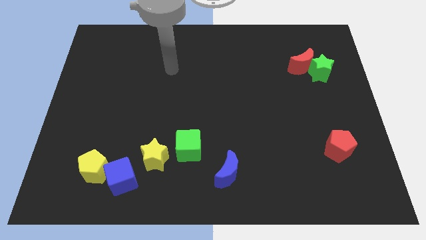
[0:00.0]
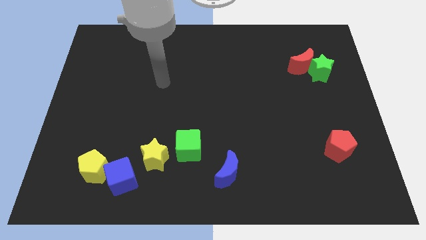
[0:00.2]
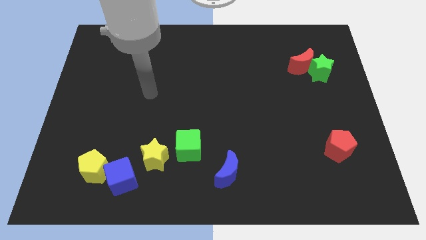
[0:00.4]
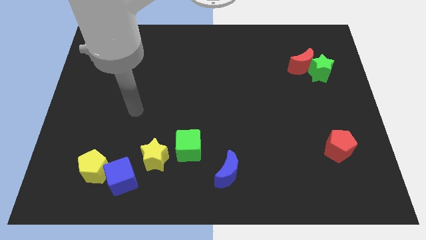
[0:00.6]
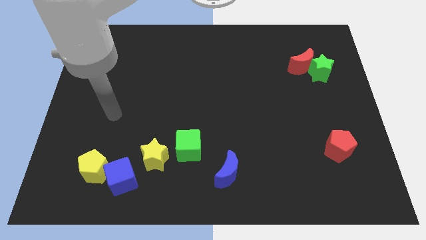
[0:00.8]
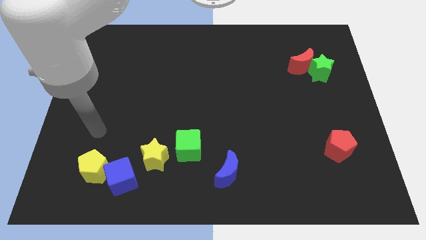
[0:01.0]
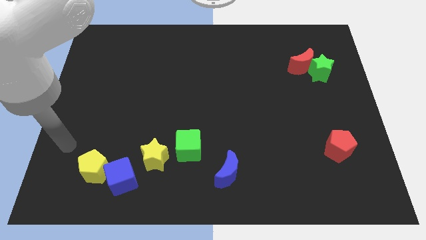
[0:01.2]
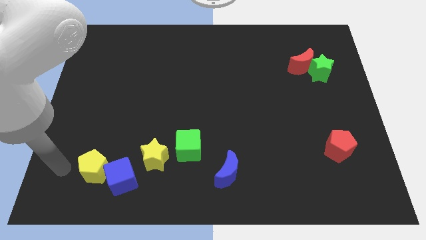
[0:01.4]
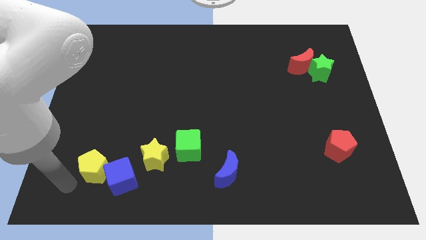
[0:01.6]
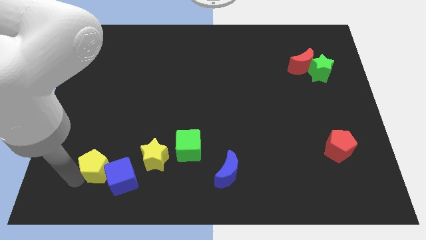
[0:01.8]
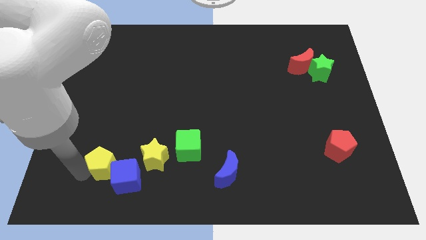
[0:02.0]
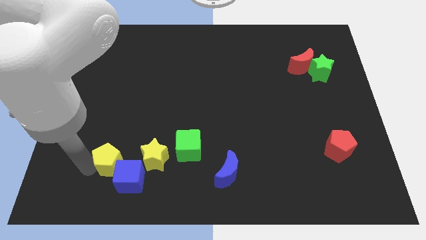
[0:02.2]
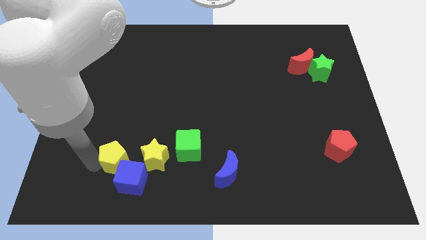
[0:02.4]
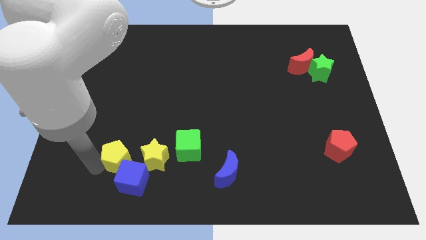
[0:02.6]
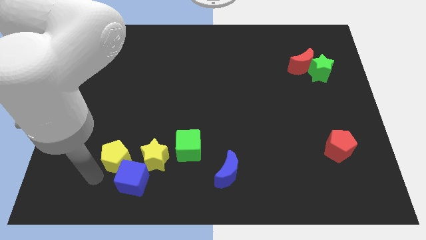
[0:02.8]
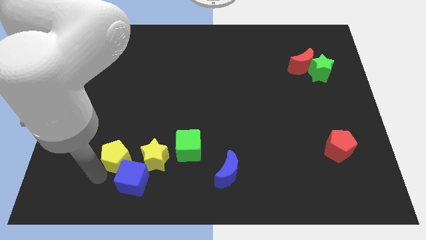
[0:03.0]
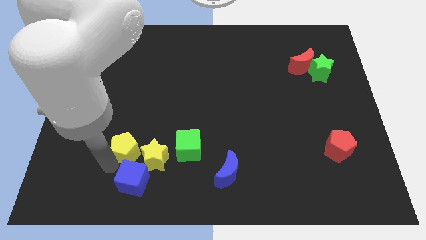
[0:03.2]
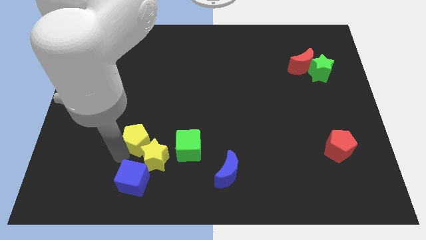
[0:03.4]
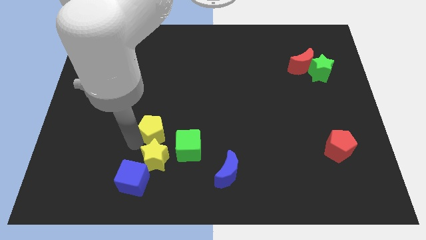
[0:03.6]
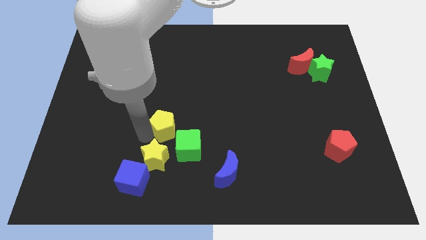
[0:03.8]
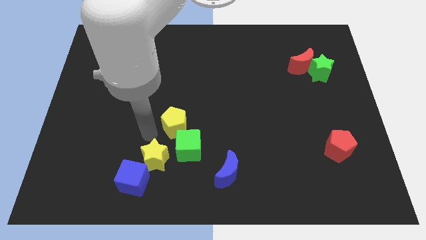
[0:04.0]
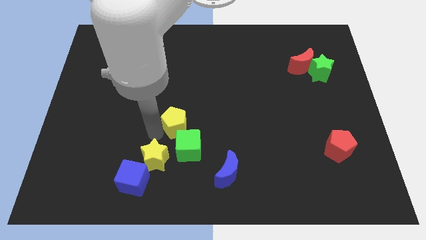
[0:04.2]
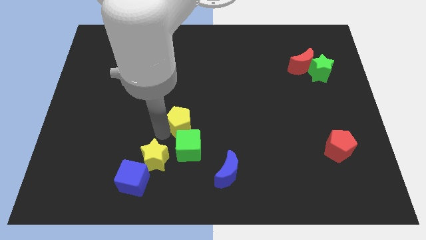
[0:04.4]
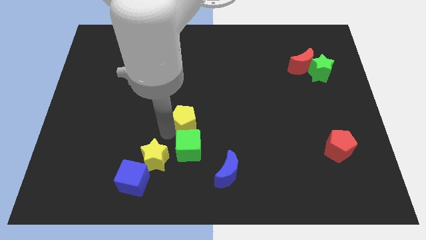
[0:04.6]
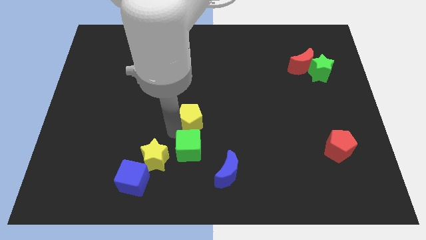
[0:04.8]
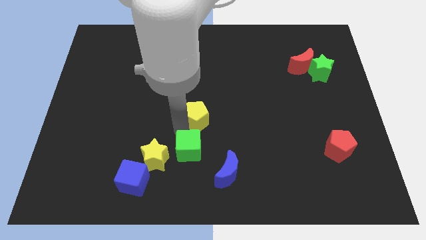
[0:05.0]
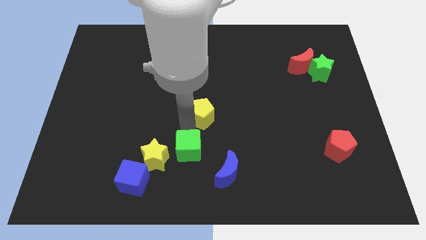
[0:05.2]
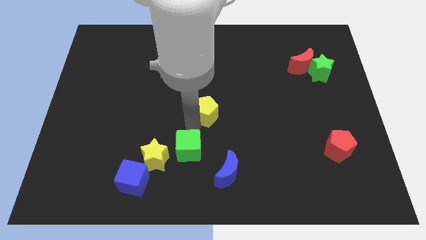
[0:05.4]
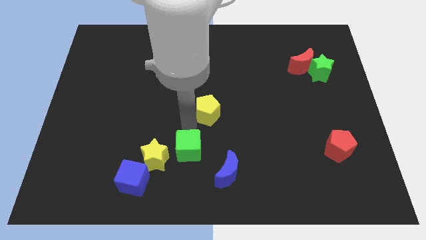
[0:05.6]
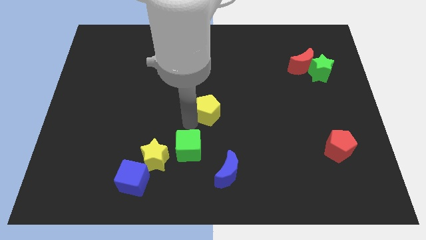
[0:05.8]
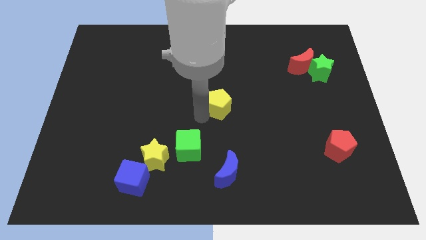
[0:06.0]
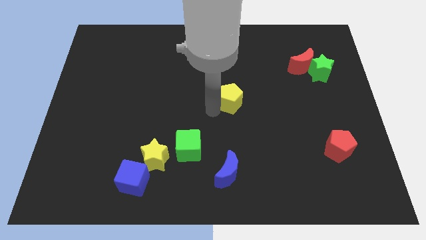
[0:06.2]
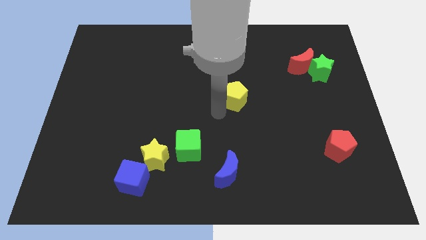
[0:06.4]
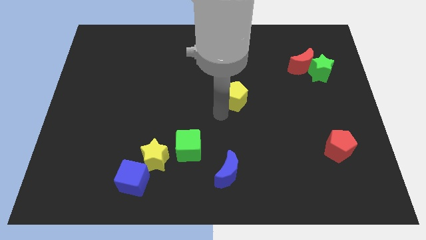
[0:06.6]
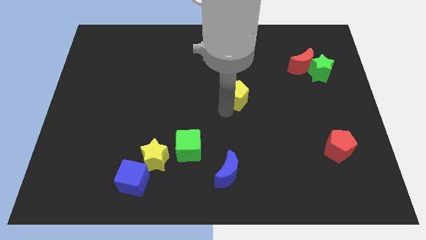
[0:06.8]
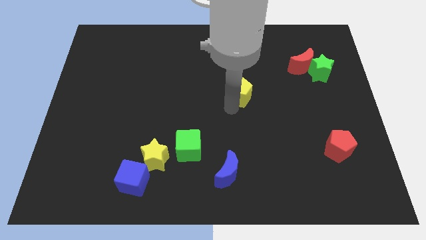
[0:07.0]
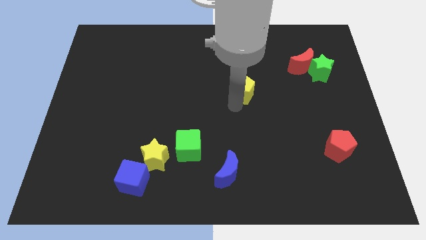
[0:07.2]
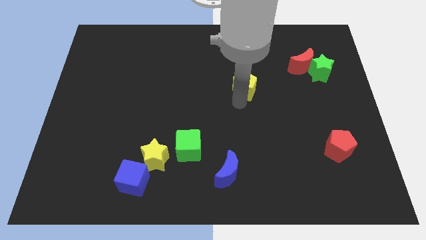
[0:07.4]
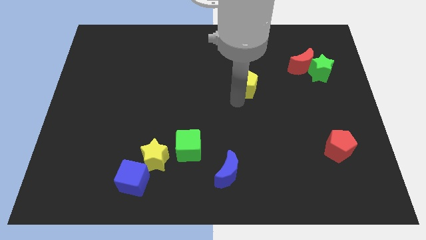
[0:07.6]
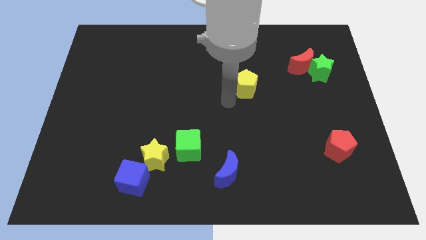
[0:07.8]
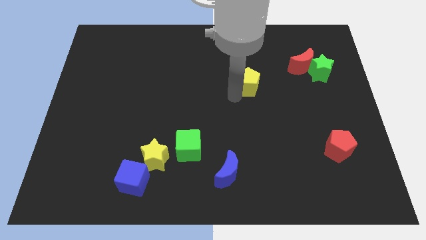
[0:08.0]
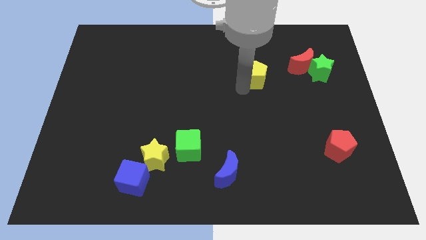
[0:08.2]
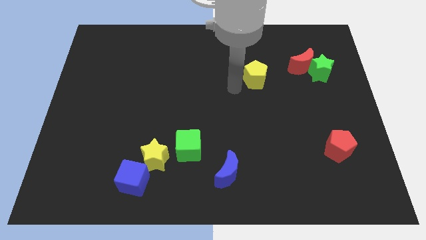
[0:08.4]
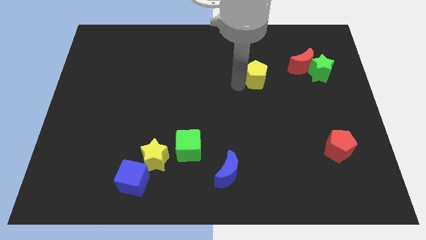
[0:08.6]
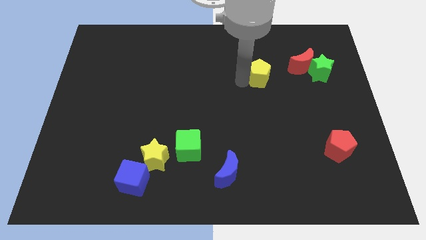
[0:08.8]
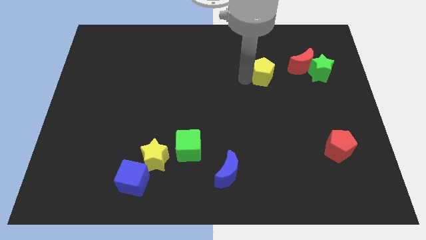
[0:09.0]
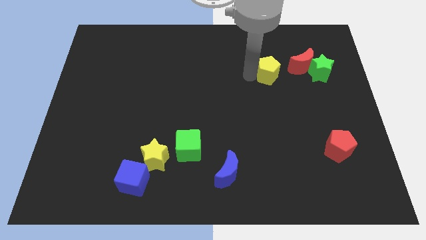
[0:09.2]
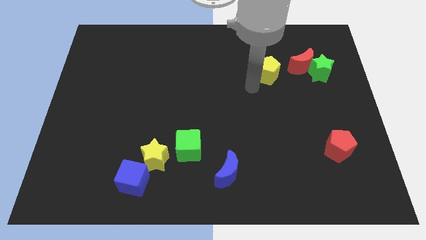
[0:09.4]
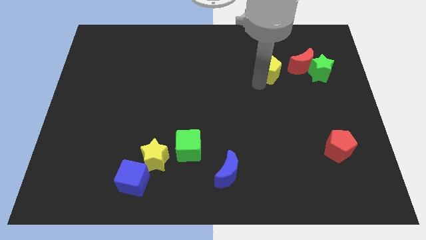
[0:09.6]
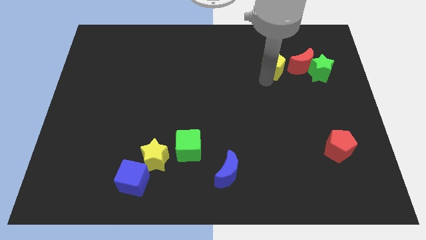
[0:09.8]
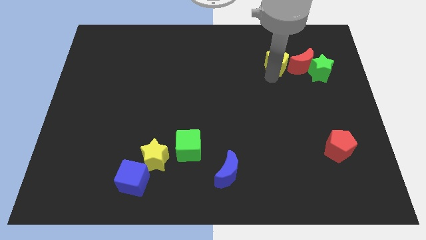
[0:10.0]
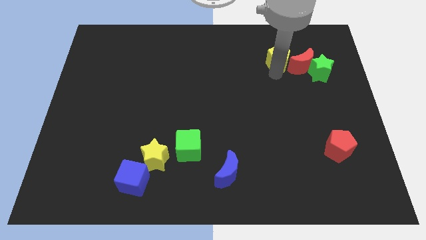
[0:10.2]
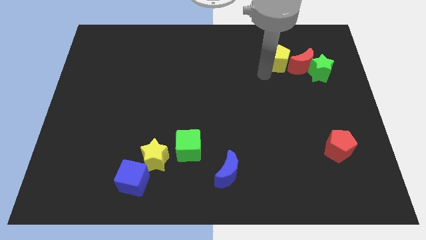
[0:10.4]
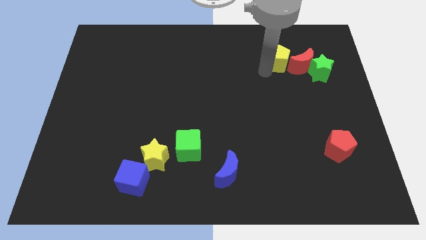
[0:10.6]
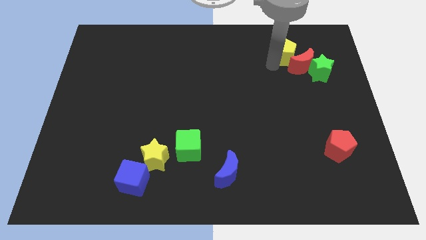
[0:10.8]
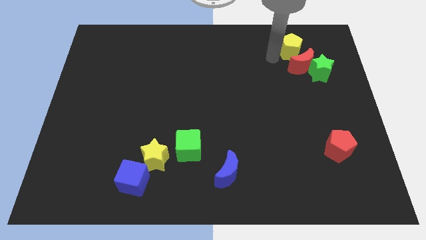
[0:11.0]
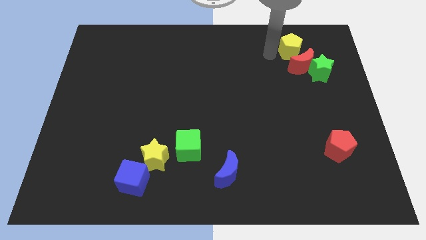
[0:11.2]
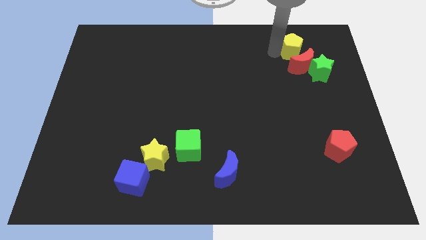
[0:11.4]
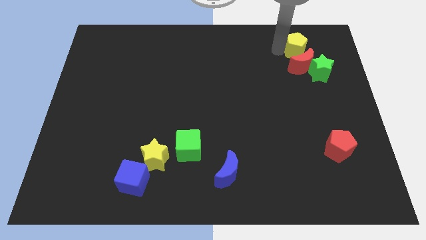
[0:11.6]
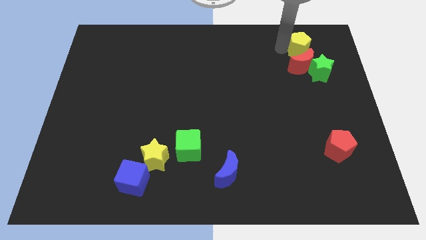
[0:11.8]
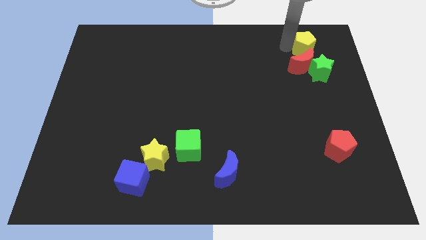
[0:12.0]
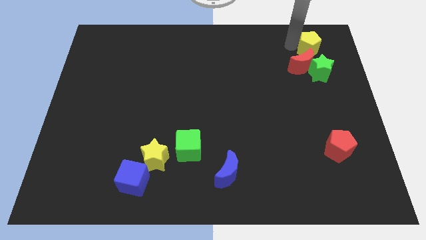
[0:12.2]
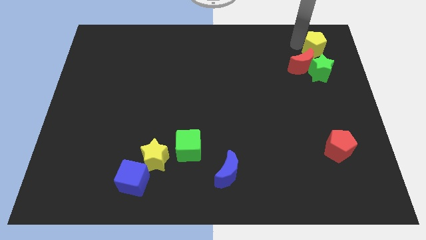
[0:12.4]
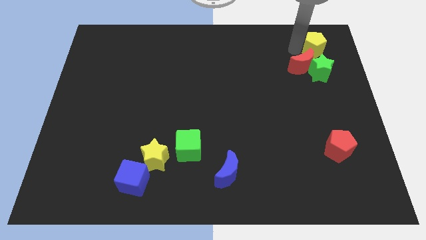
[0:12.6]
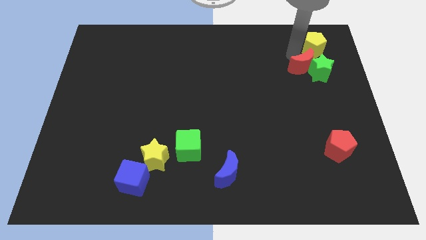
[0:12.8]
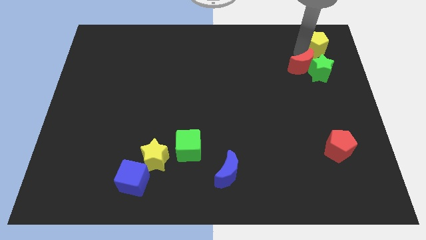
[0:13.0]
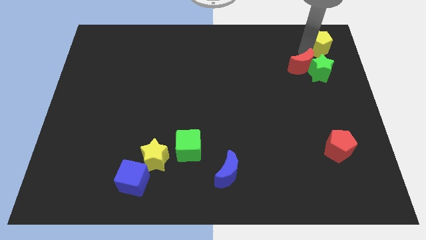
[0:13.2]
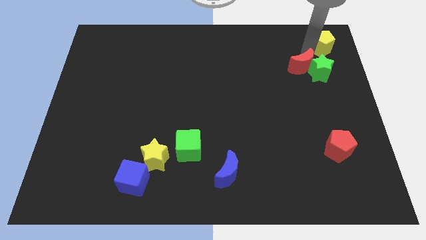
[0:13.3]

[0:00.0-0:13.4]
push the yellow pentagon to the top right
